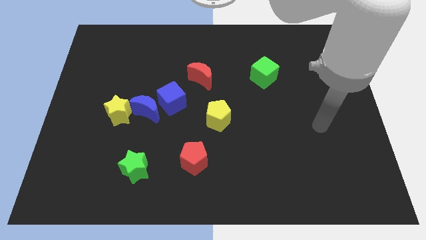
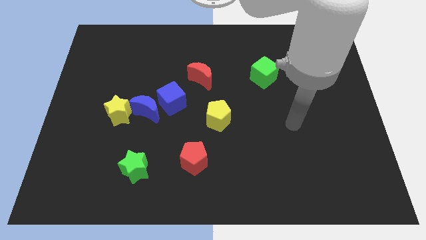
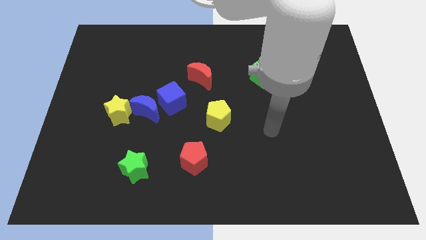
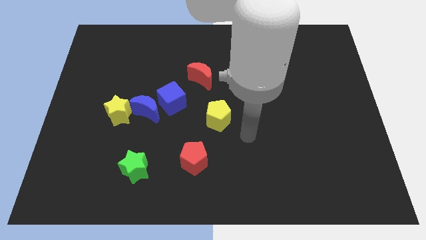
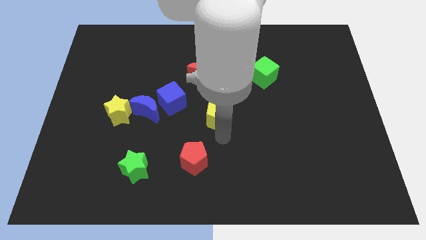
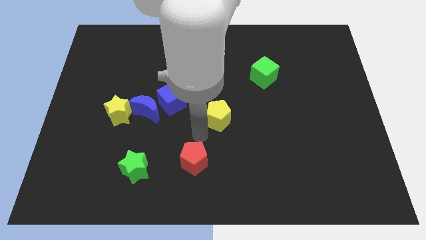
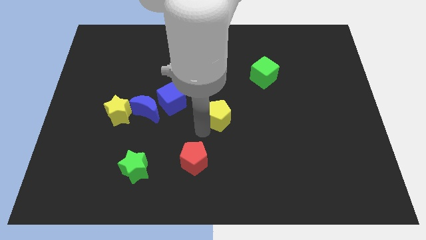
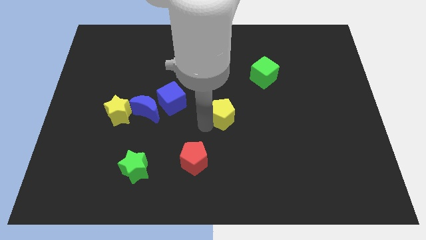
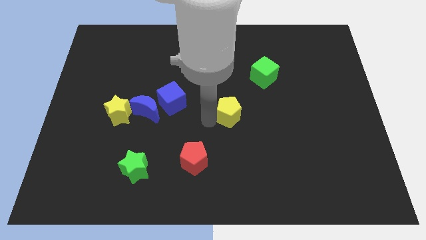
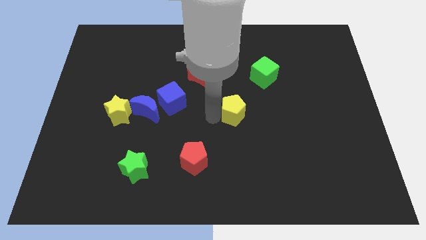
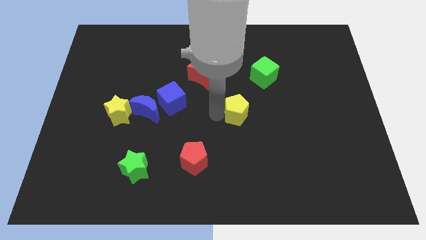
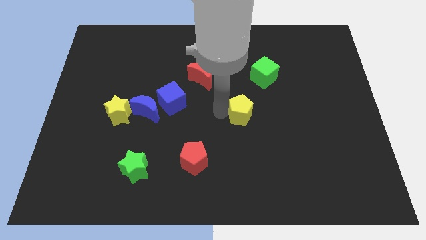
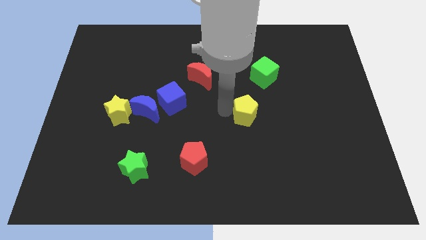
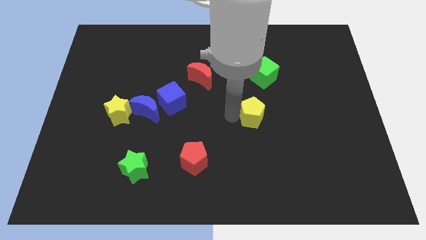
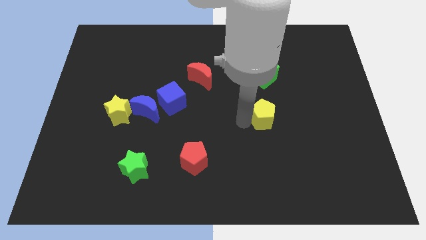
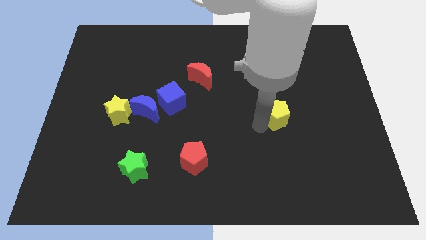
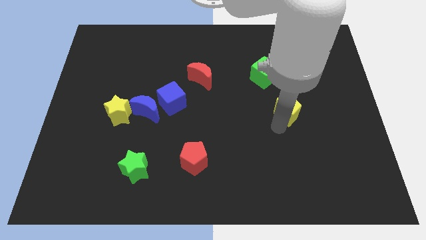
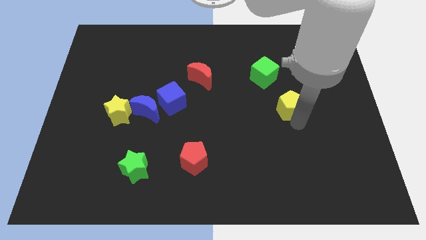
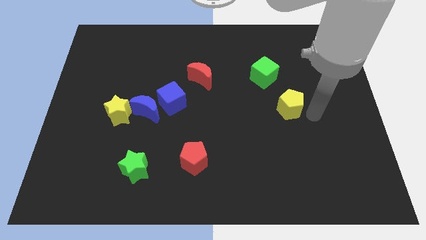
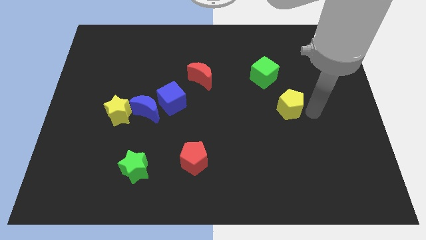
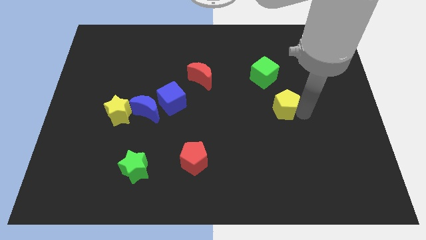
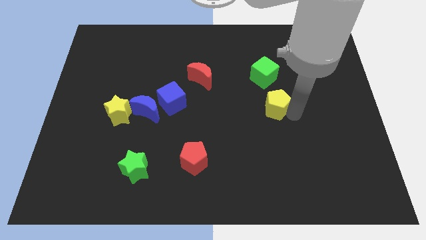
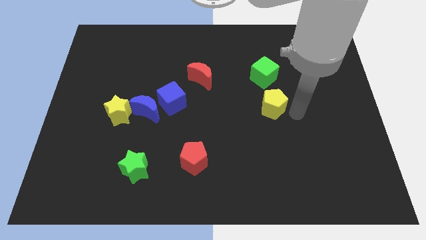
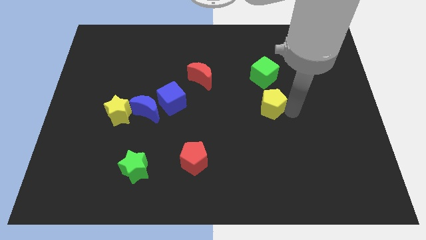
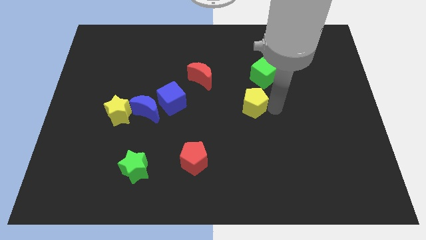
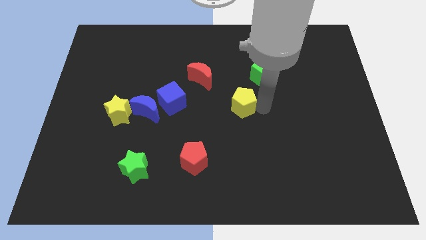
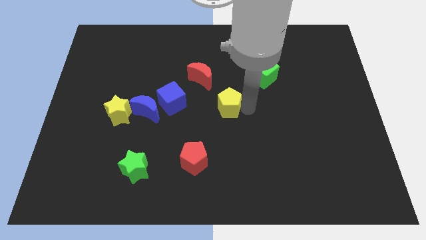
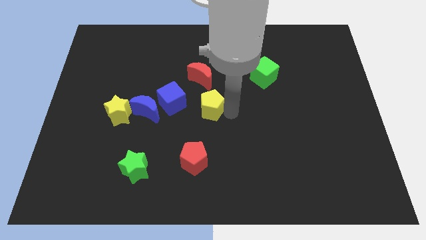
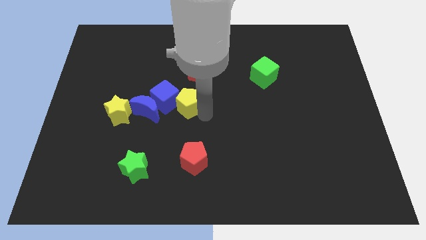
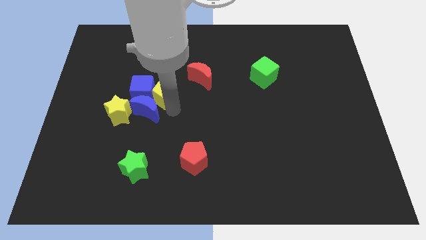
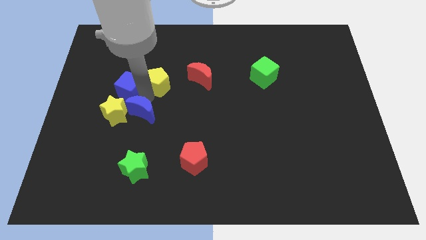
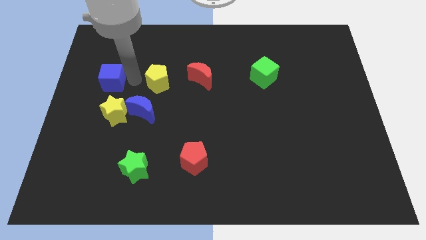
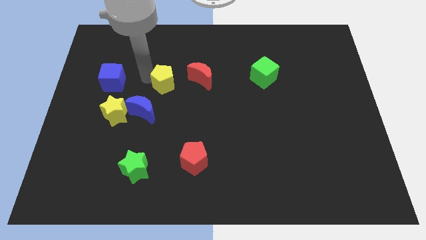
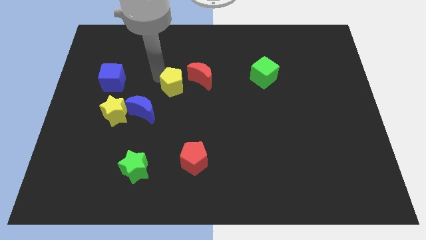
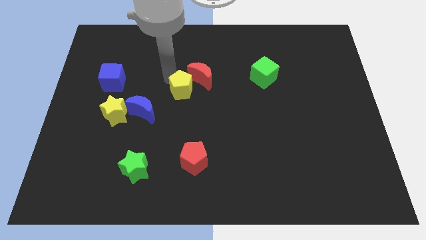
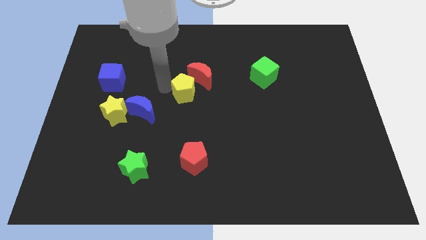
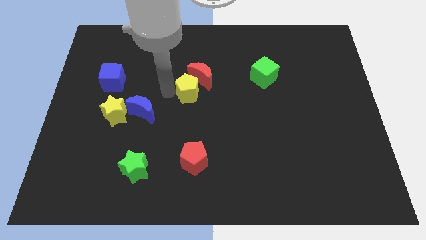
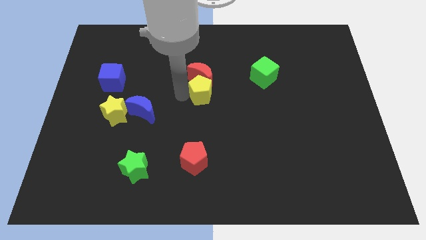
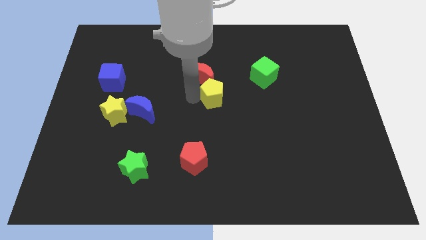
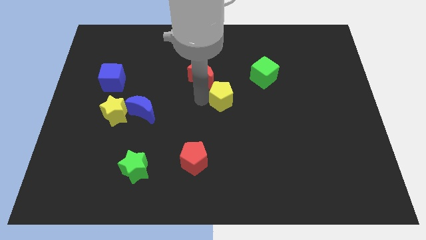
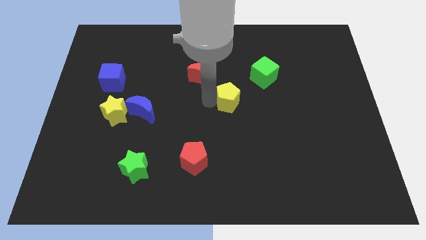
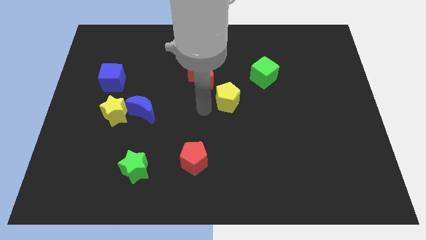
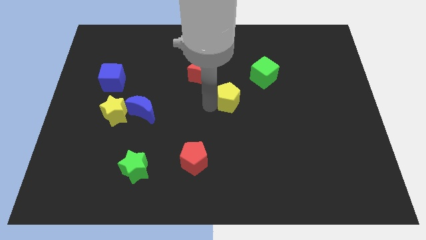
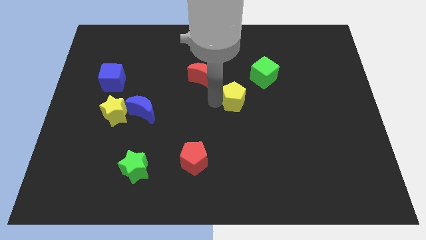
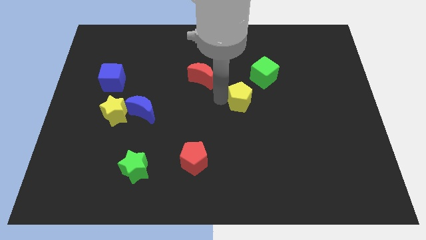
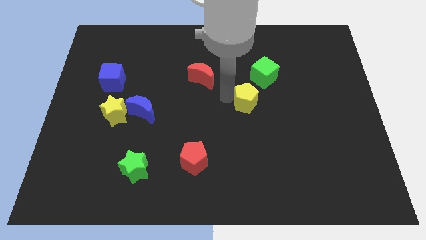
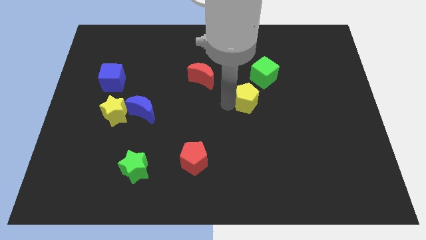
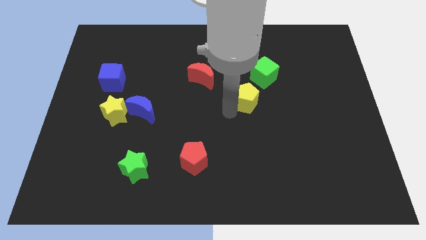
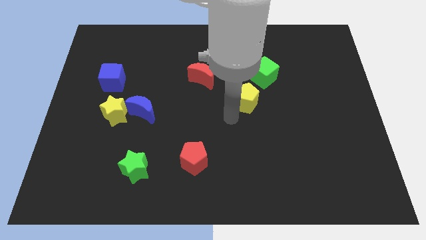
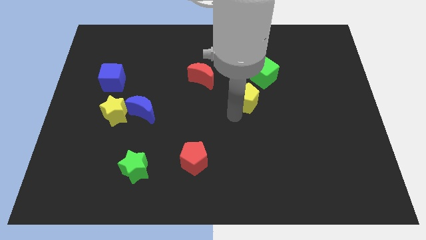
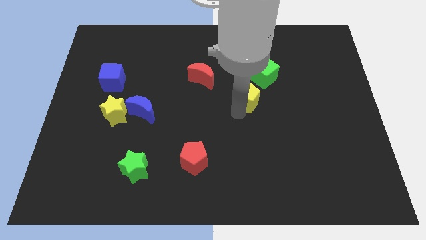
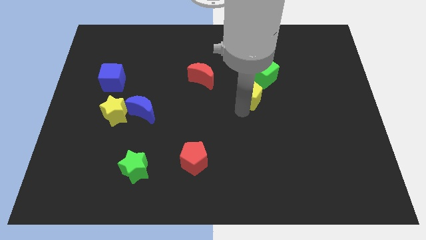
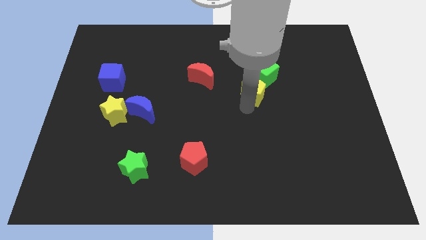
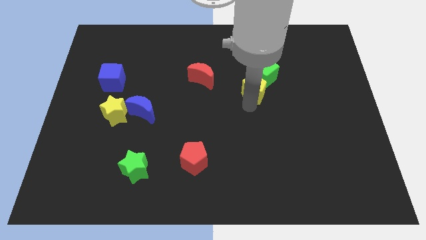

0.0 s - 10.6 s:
push the yellow pentagon next to the green cube

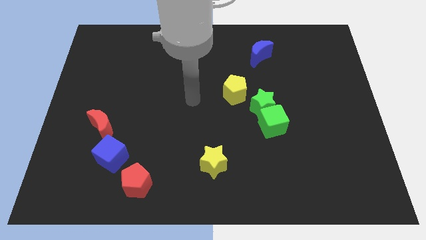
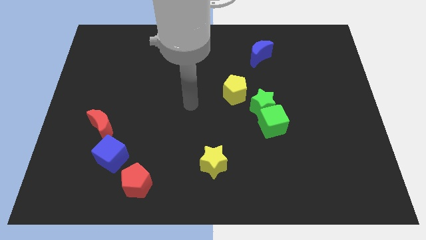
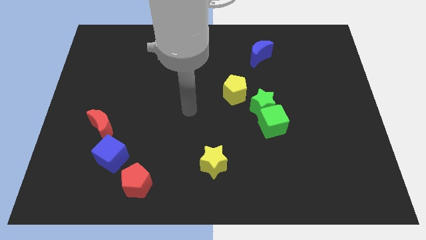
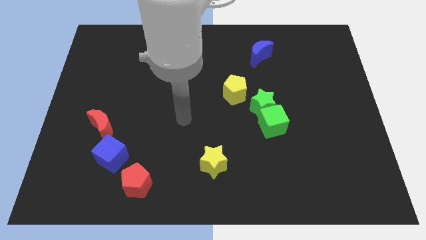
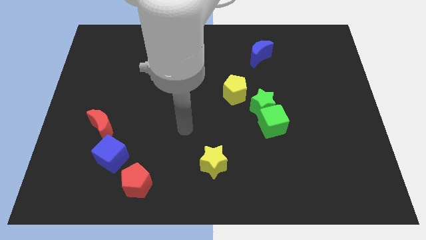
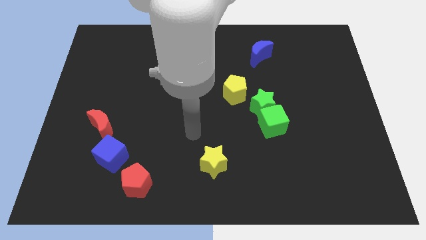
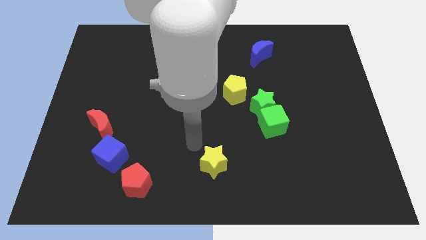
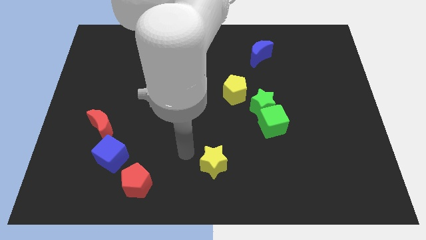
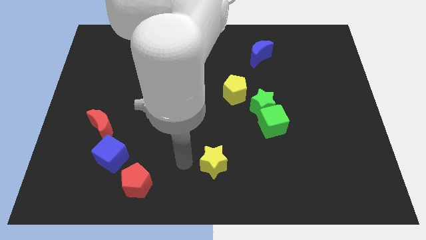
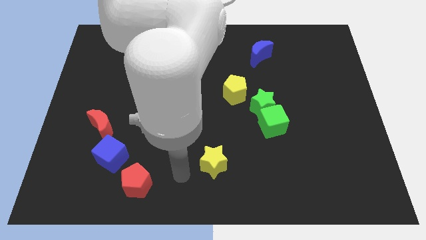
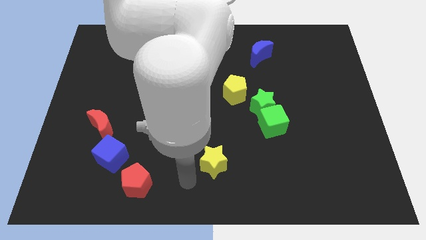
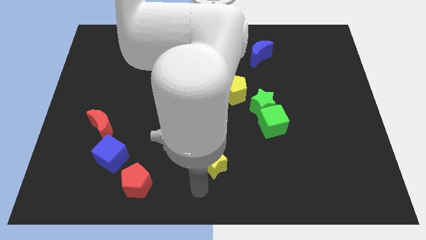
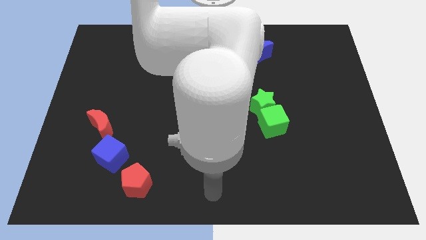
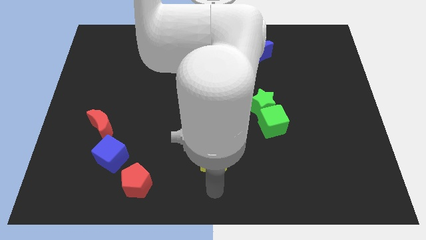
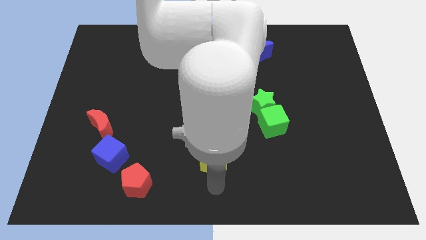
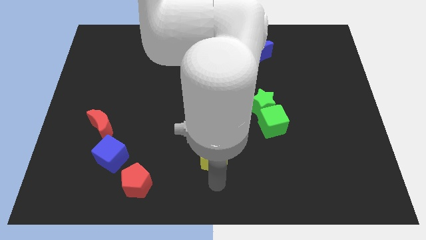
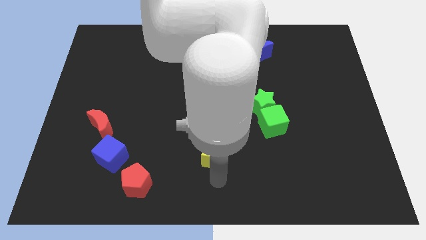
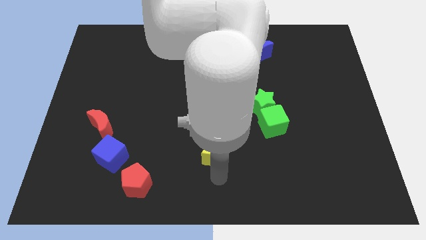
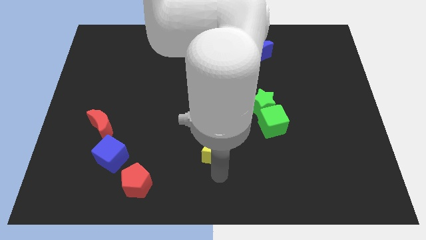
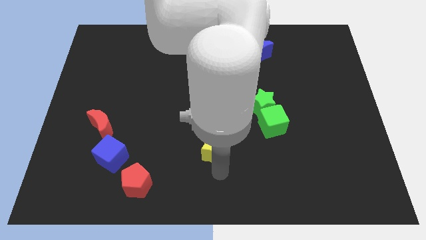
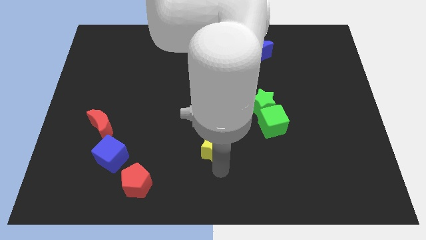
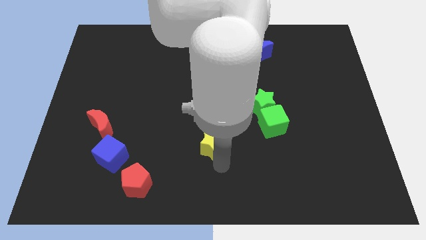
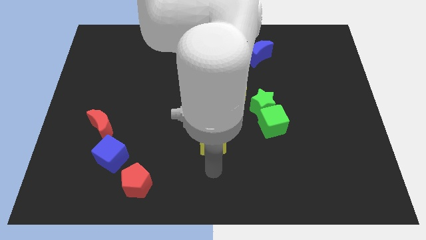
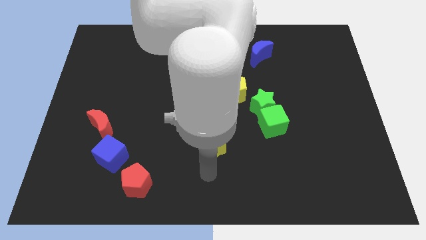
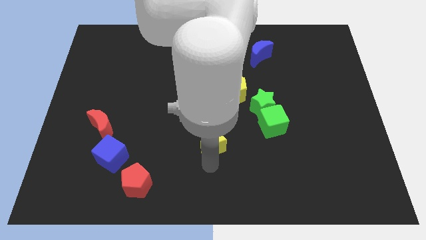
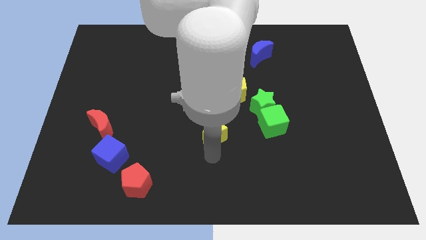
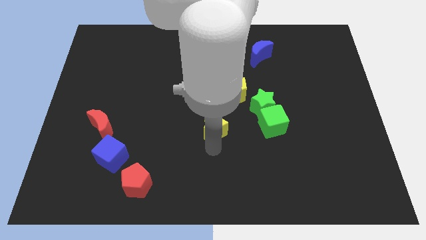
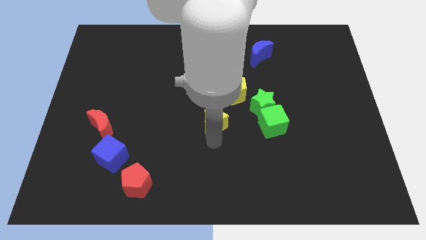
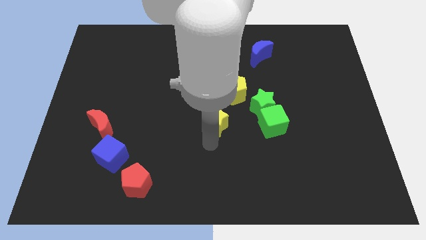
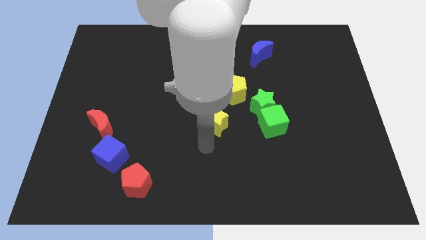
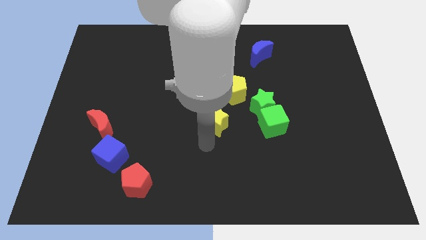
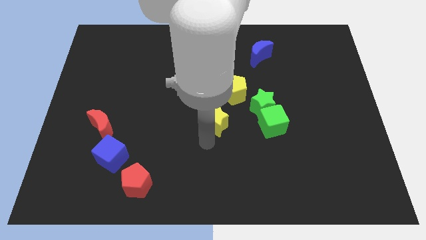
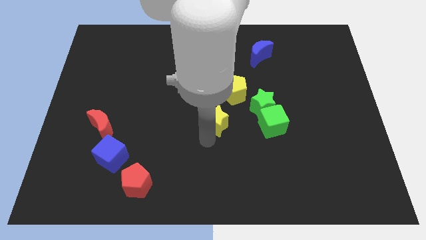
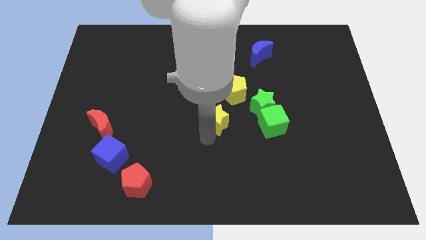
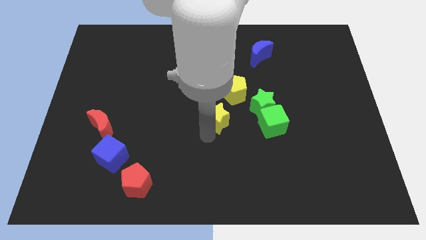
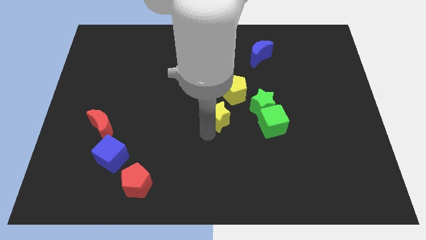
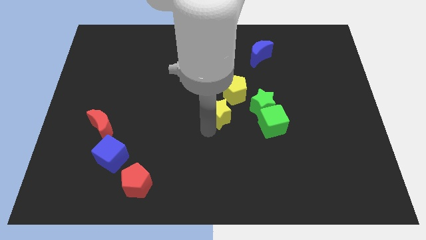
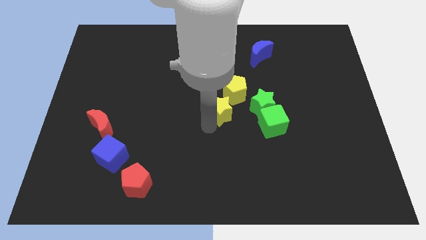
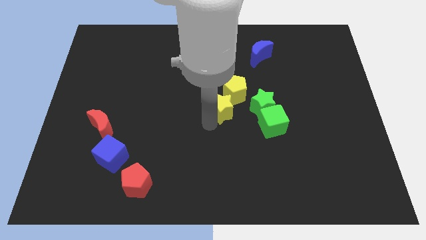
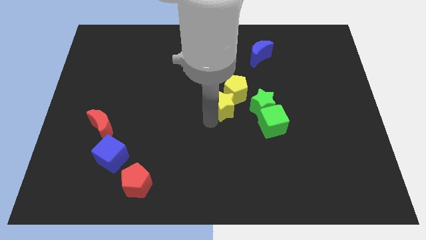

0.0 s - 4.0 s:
push the yellow star close to the yellow pentagon
